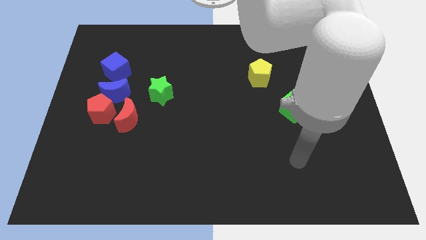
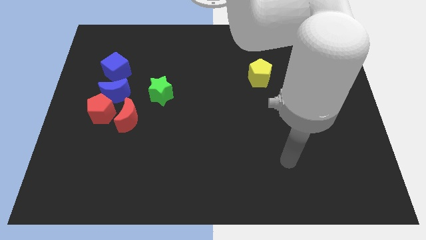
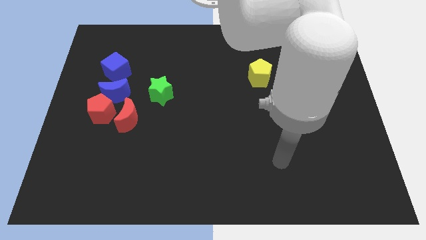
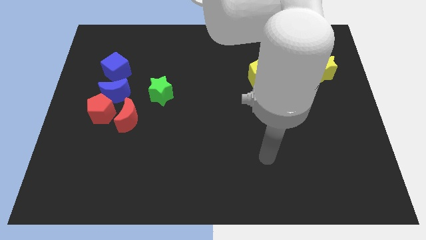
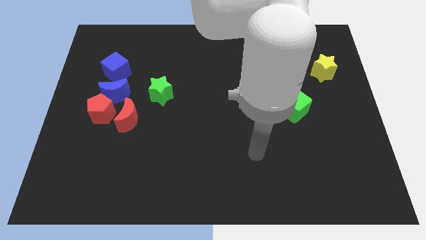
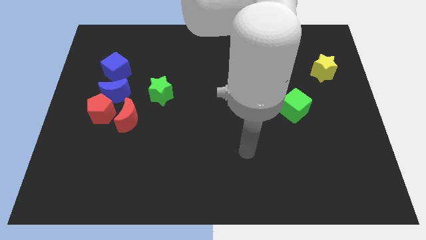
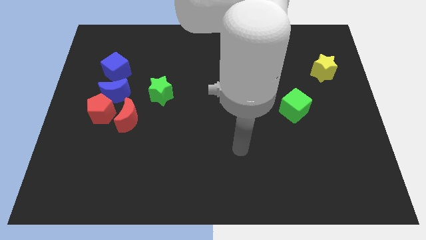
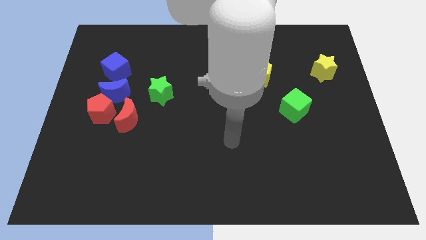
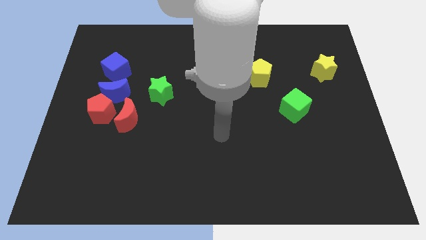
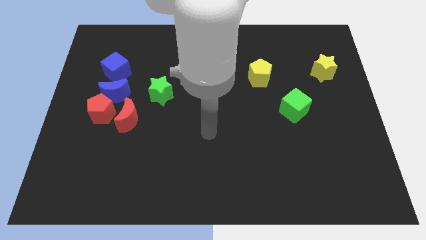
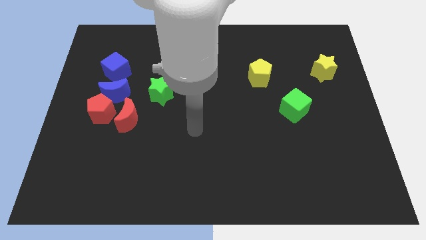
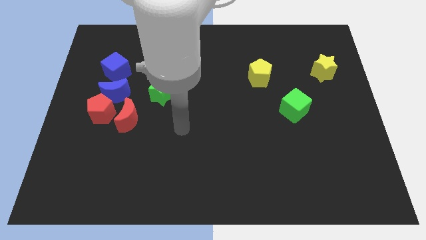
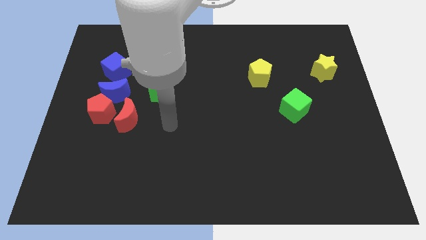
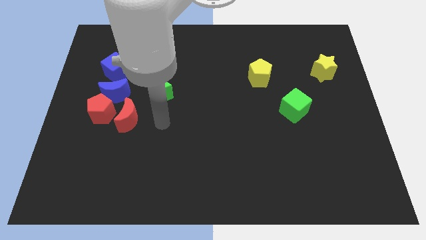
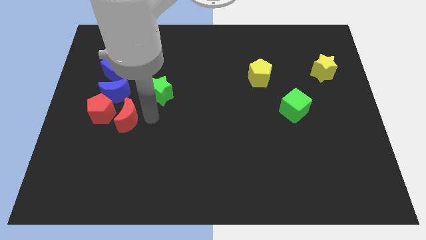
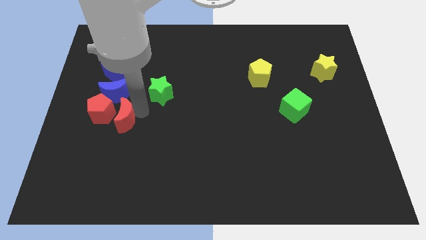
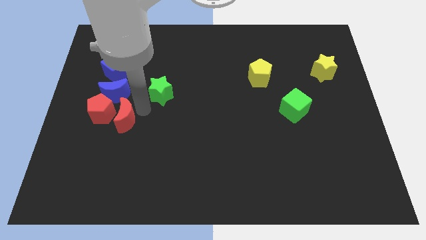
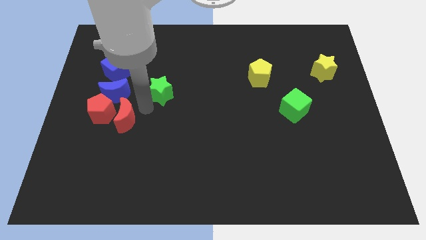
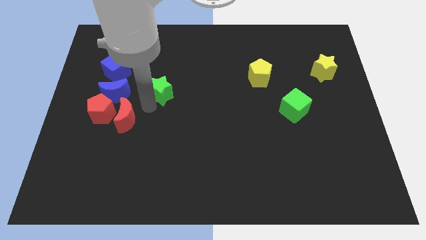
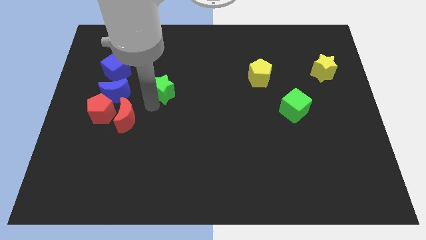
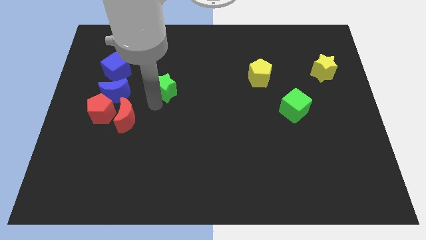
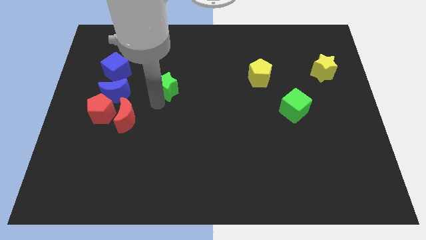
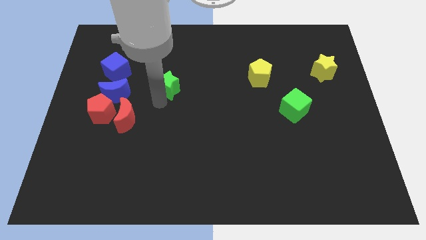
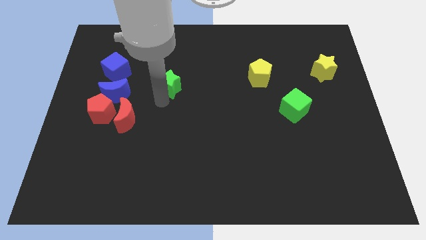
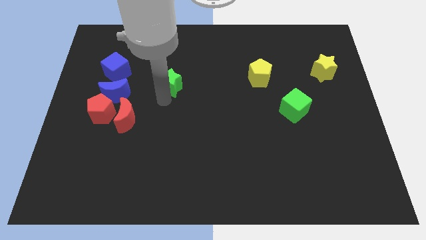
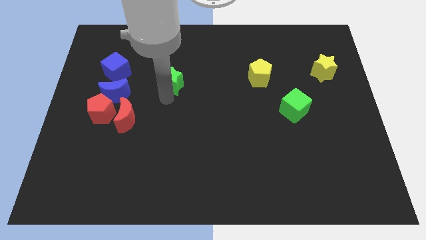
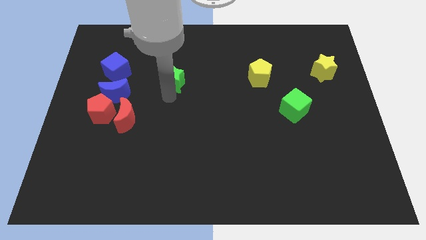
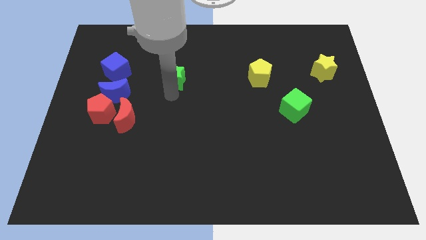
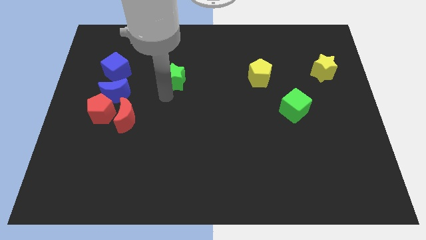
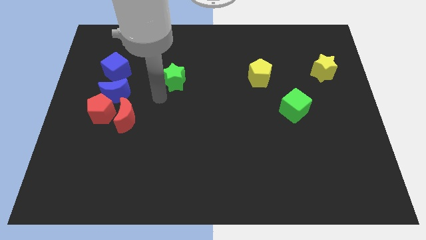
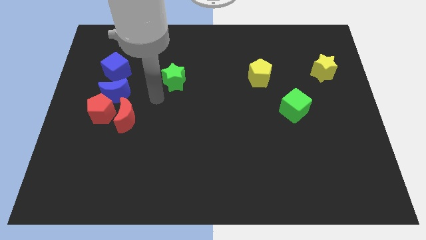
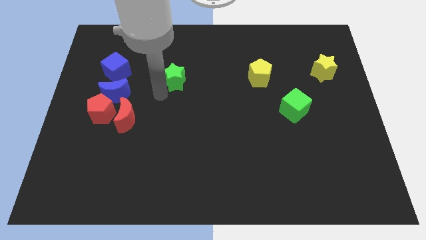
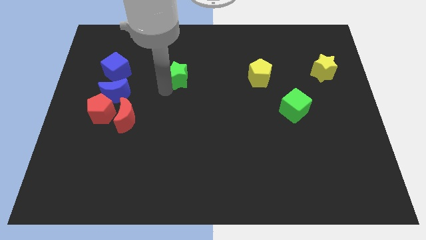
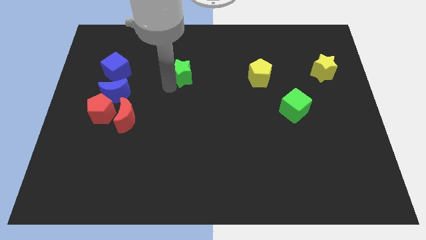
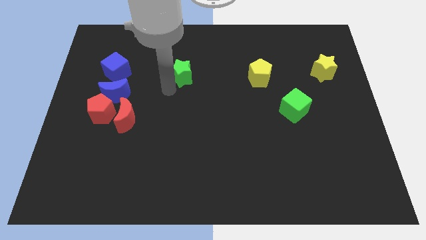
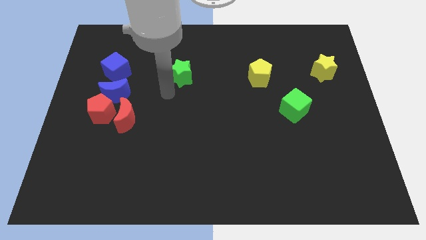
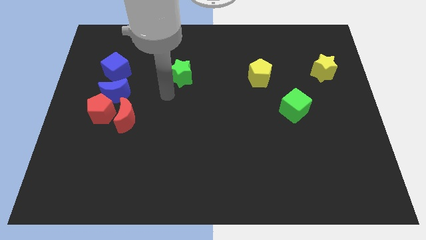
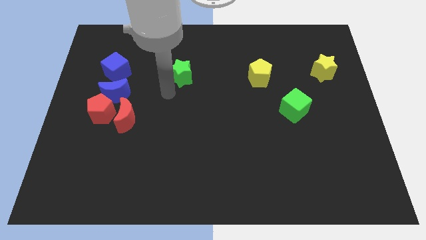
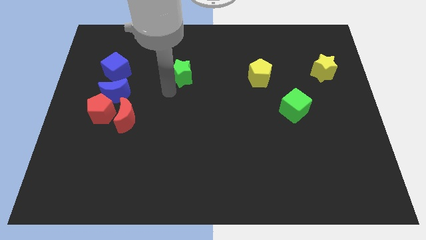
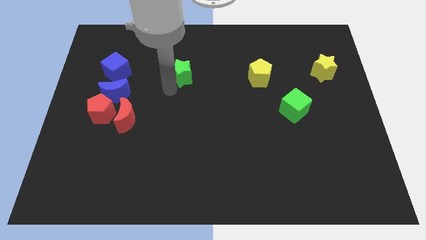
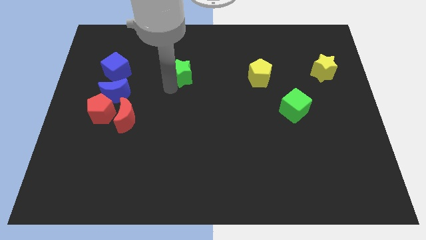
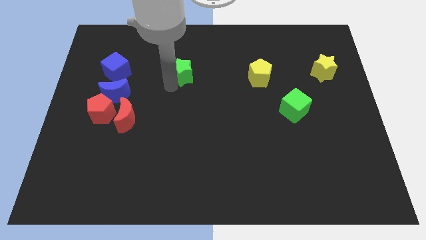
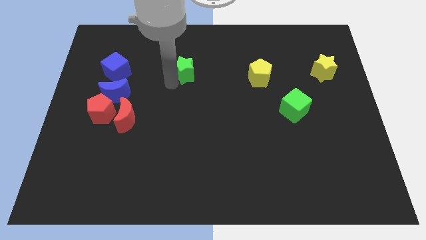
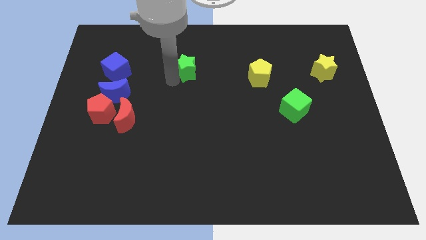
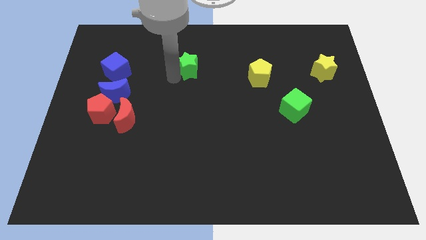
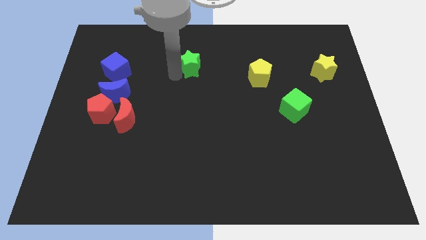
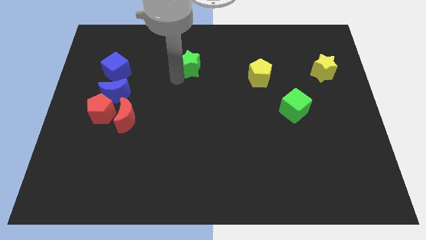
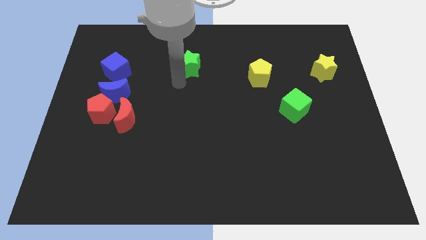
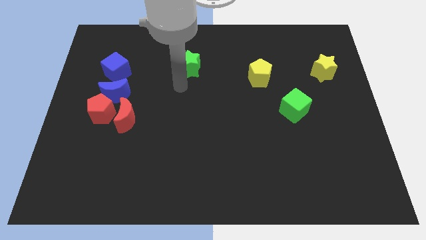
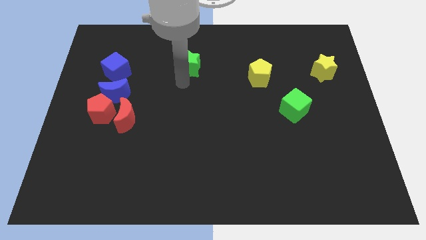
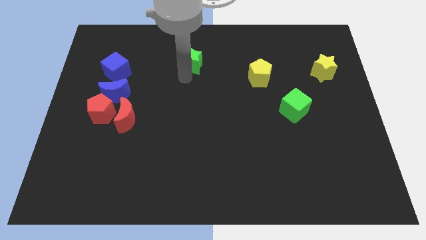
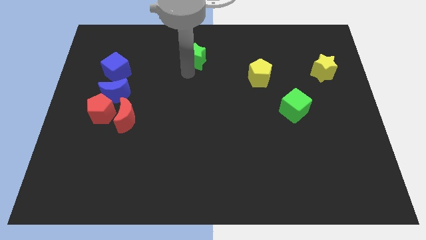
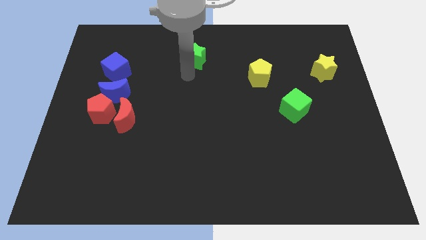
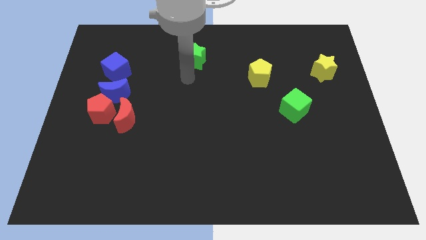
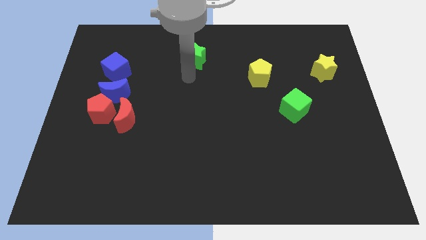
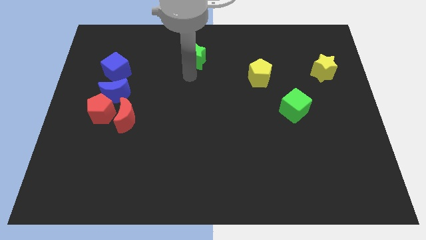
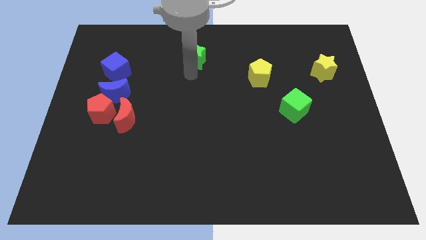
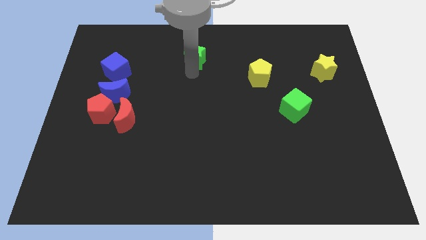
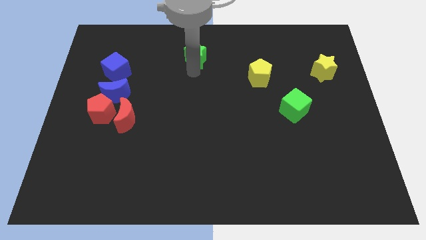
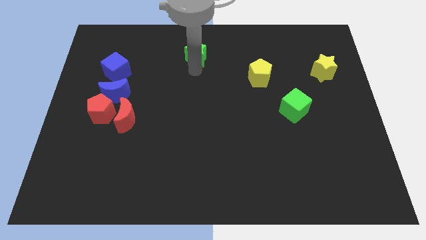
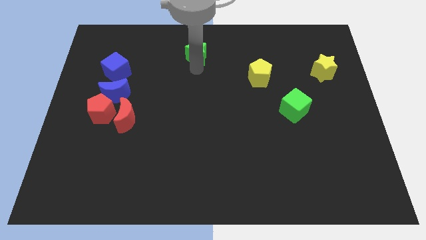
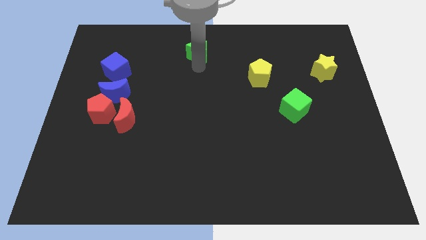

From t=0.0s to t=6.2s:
slide the green star to the top side
